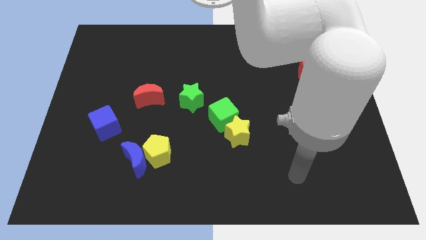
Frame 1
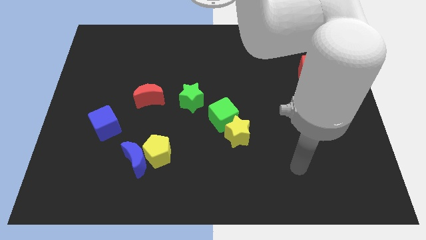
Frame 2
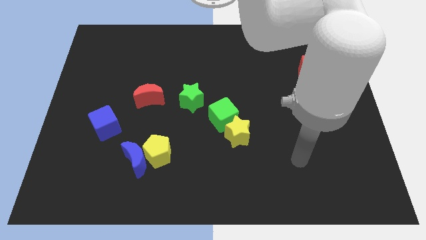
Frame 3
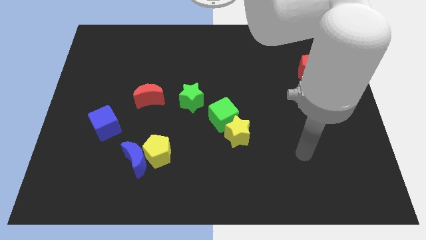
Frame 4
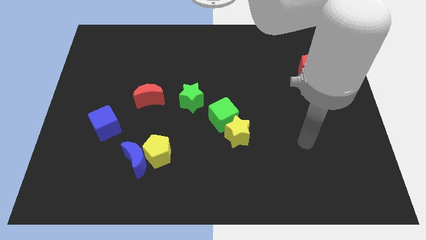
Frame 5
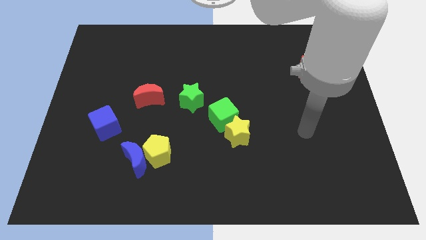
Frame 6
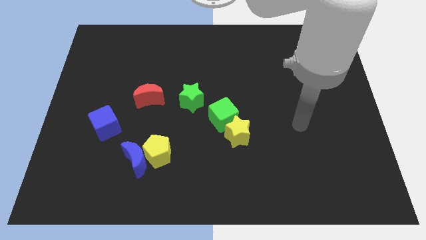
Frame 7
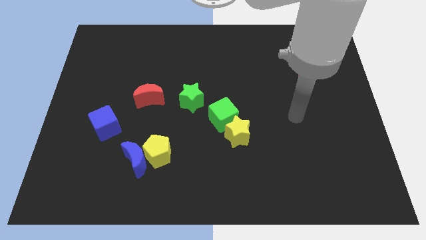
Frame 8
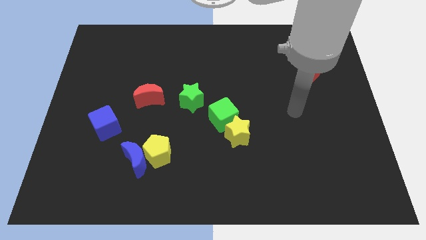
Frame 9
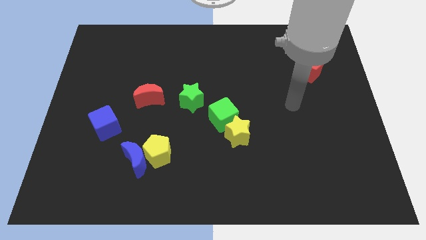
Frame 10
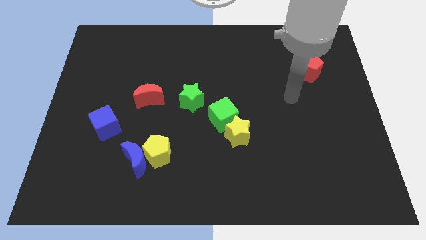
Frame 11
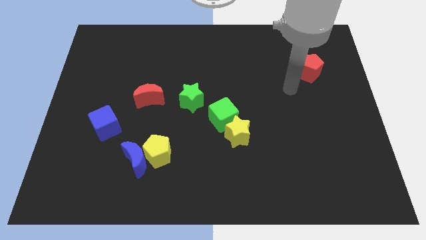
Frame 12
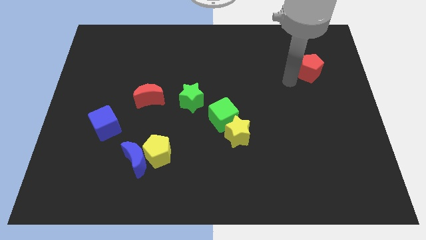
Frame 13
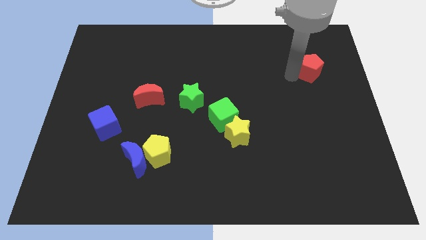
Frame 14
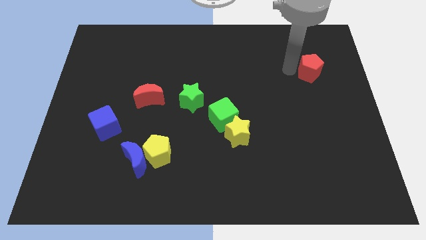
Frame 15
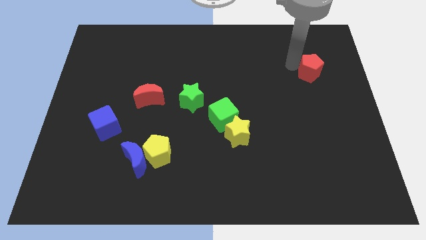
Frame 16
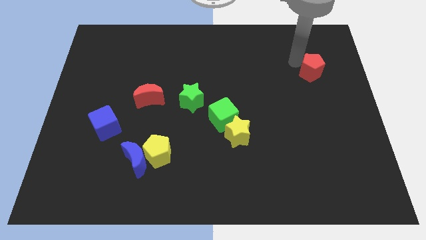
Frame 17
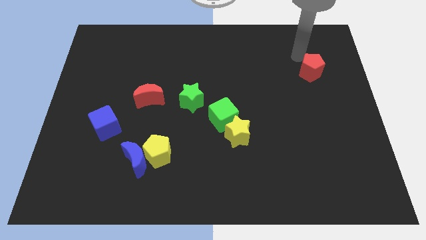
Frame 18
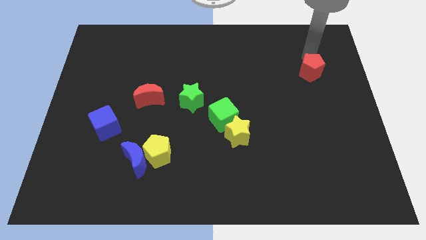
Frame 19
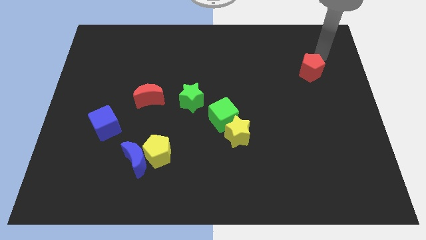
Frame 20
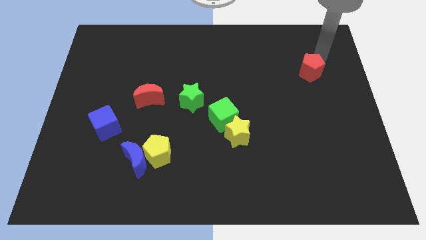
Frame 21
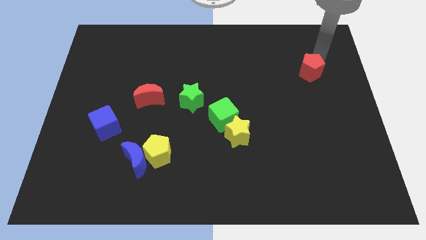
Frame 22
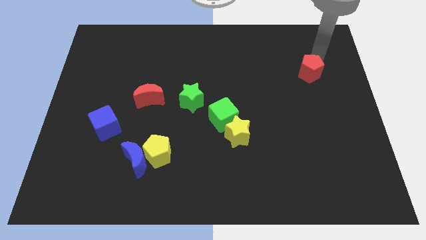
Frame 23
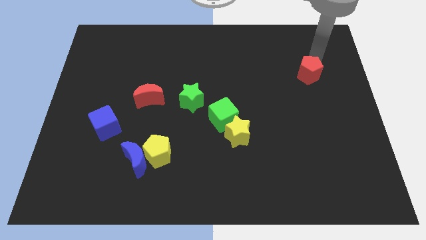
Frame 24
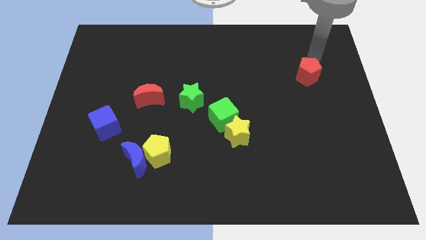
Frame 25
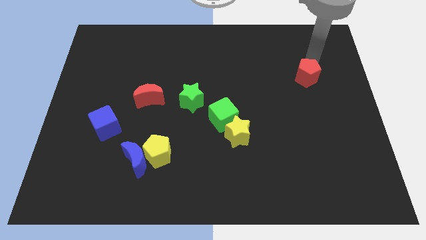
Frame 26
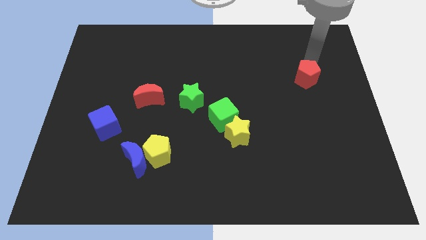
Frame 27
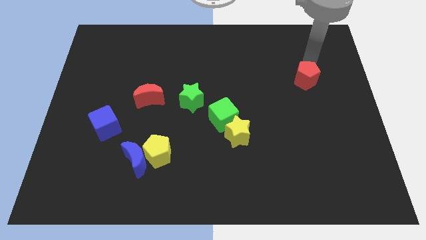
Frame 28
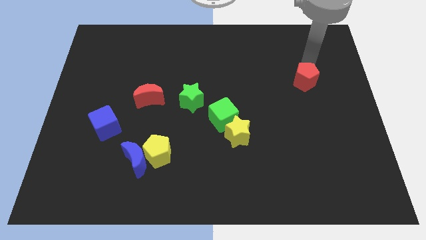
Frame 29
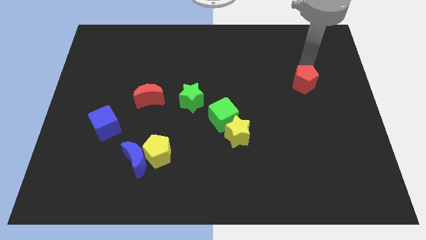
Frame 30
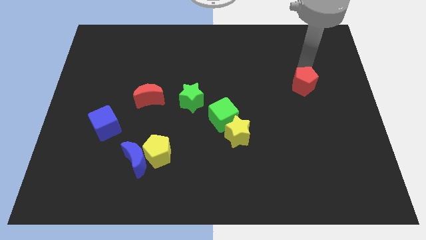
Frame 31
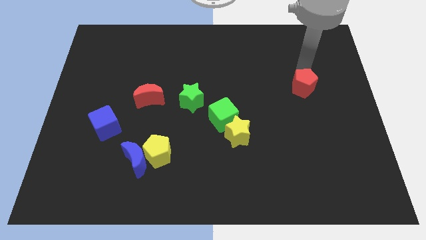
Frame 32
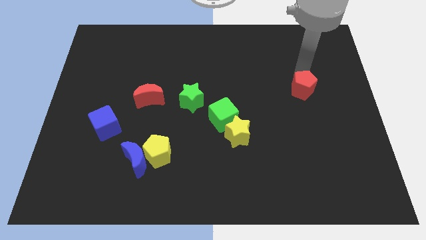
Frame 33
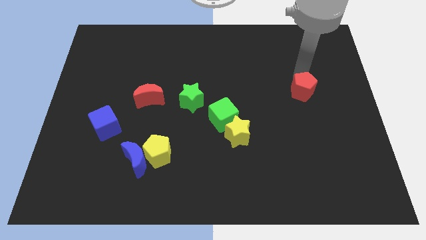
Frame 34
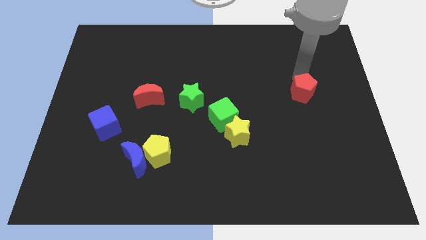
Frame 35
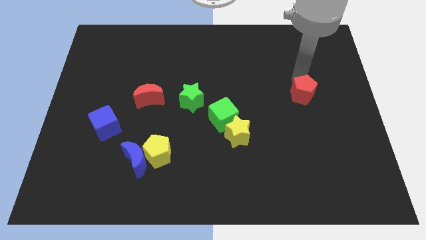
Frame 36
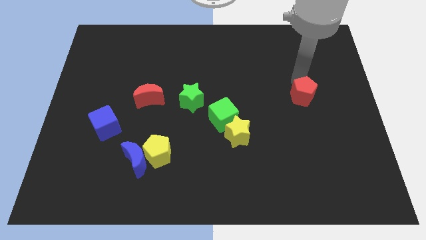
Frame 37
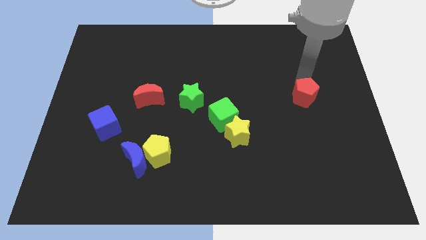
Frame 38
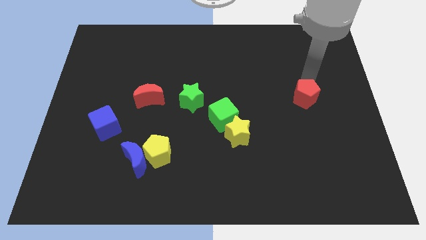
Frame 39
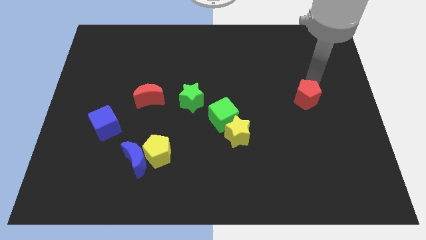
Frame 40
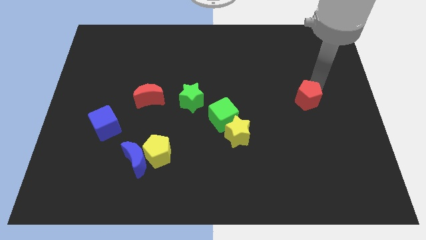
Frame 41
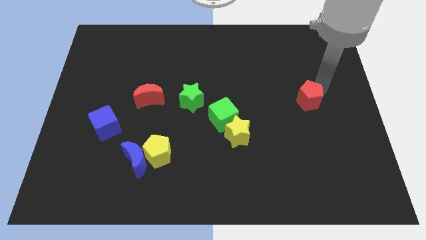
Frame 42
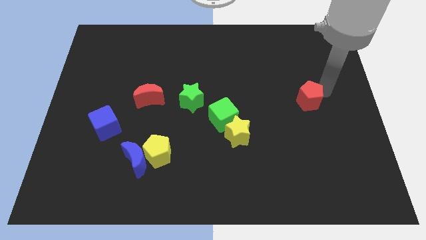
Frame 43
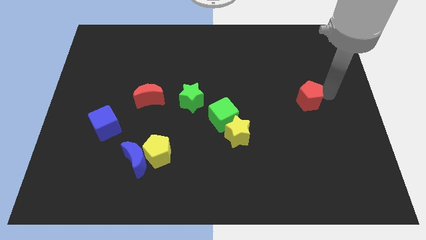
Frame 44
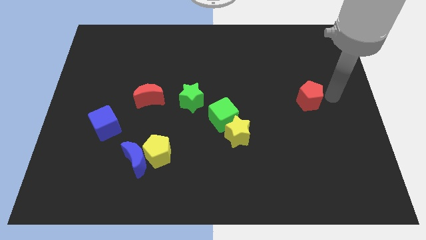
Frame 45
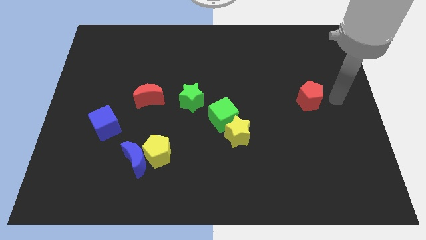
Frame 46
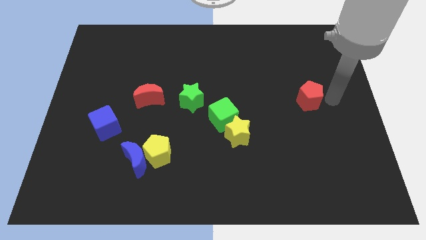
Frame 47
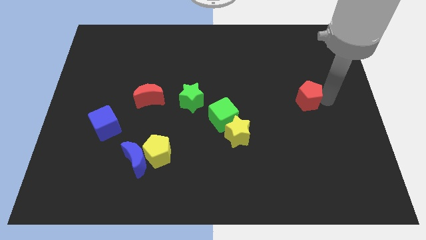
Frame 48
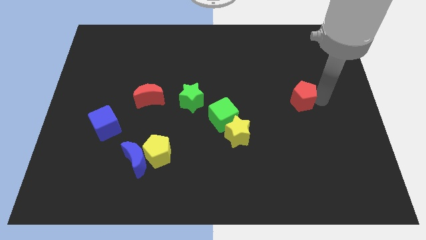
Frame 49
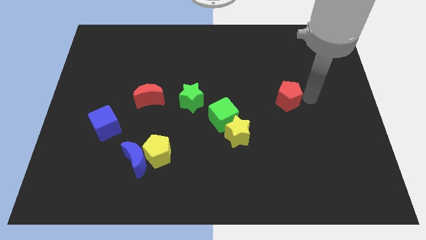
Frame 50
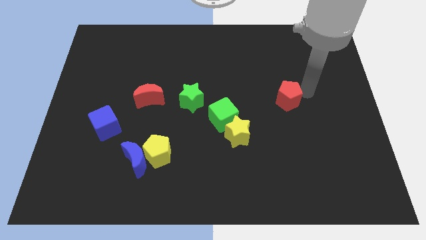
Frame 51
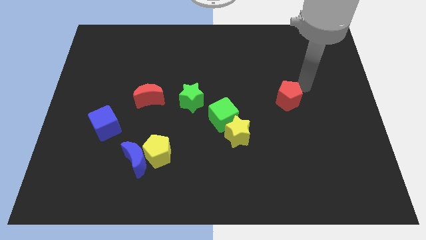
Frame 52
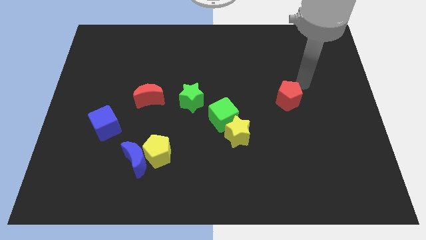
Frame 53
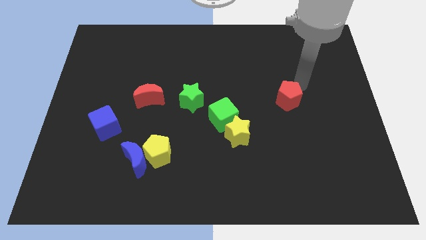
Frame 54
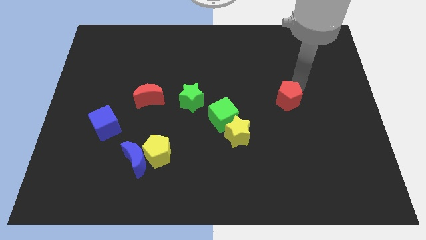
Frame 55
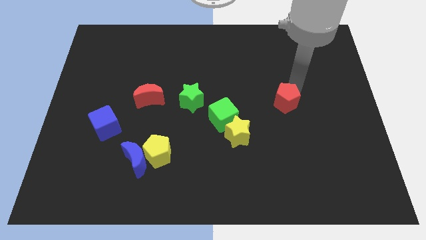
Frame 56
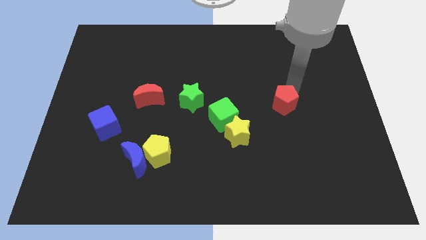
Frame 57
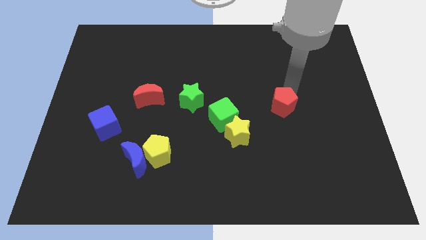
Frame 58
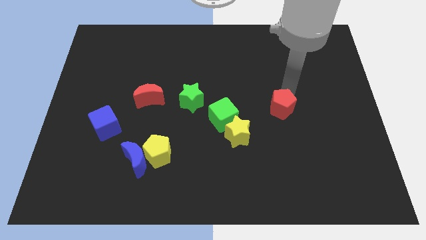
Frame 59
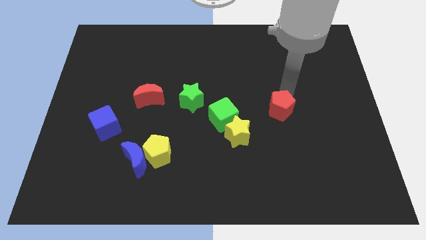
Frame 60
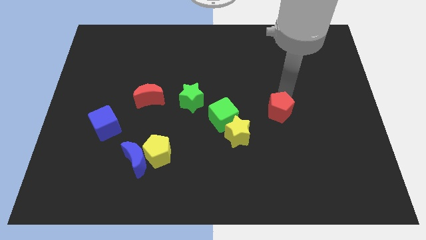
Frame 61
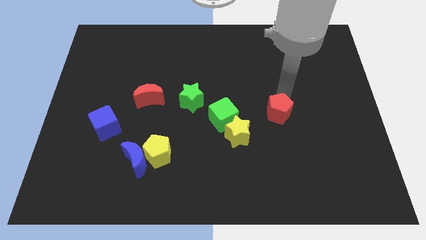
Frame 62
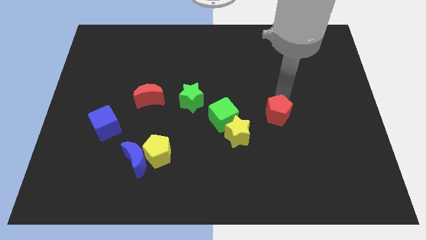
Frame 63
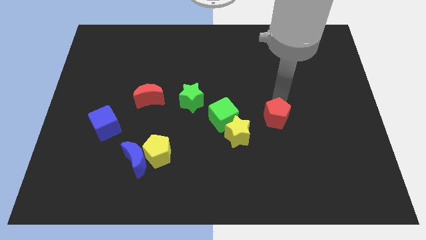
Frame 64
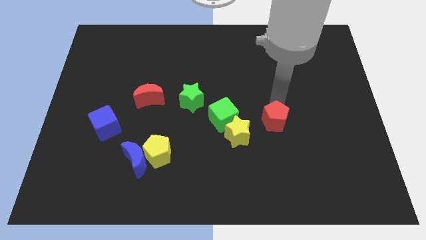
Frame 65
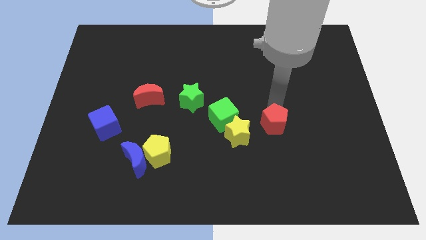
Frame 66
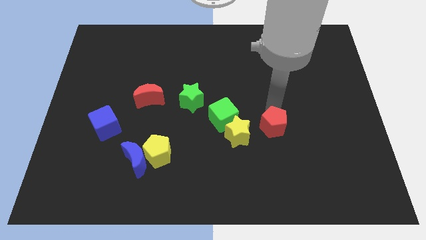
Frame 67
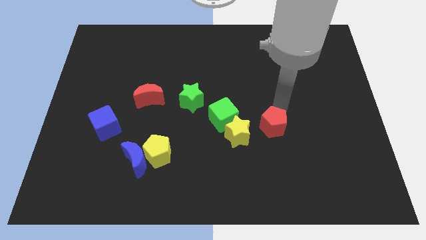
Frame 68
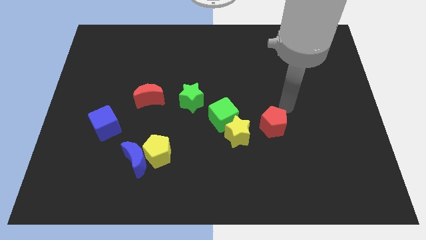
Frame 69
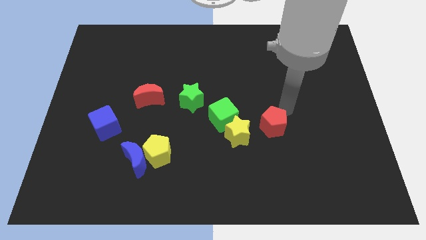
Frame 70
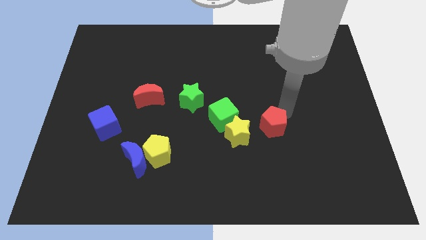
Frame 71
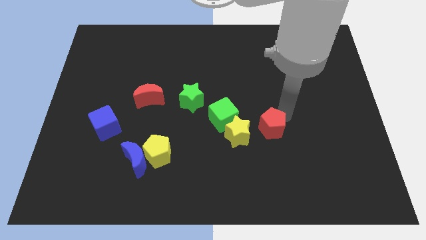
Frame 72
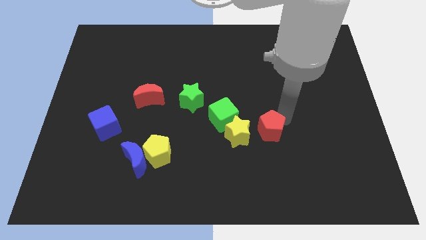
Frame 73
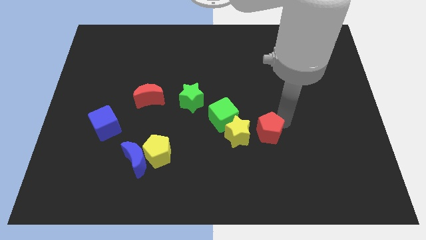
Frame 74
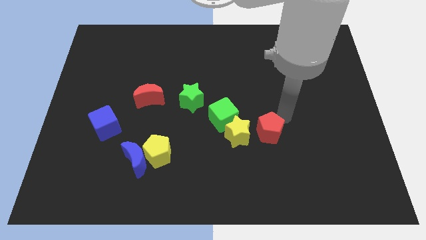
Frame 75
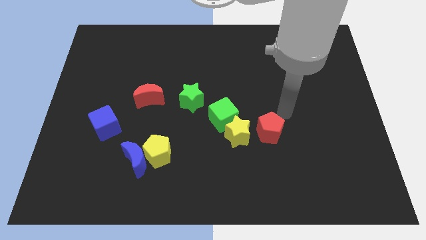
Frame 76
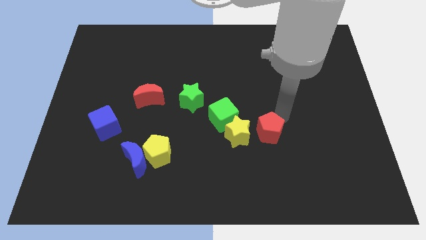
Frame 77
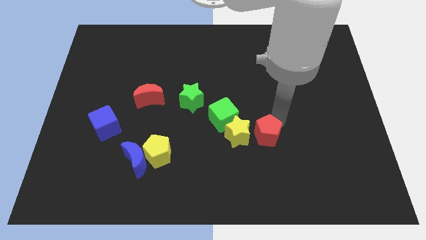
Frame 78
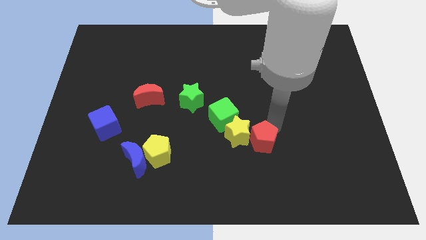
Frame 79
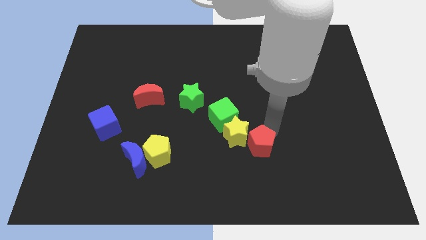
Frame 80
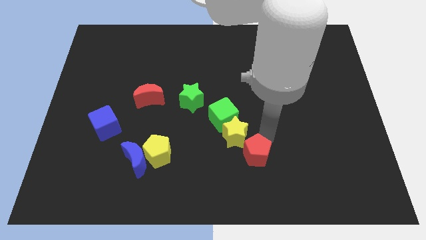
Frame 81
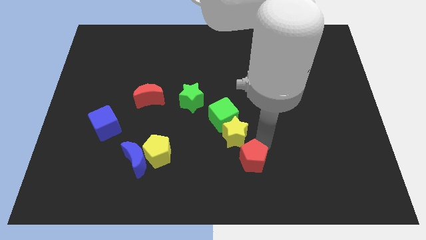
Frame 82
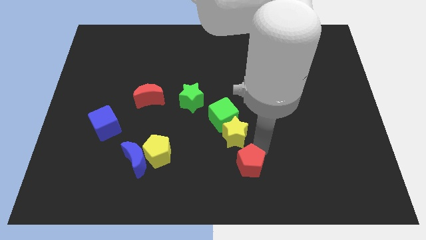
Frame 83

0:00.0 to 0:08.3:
slide the red pentagon to the bottom side
